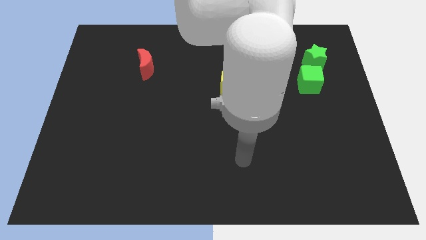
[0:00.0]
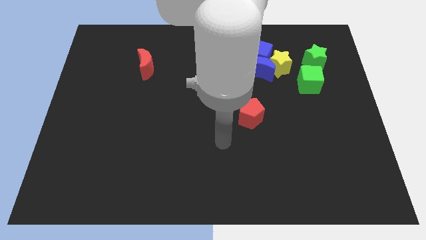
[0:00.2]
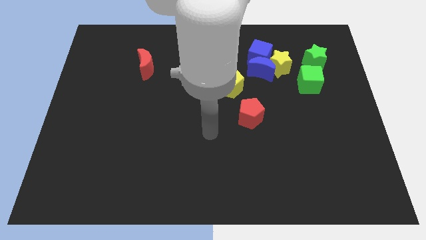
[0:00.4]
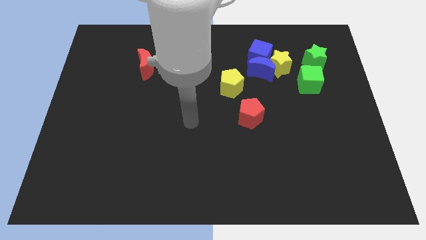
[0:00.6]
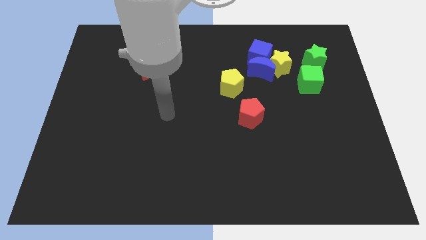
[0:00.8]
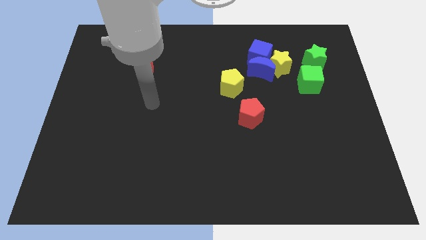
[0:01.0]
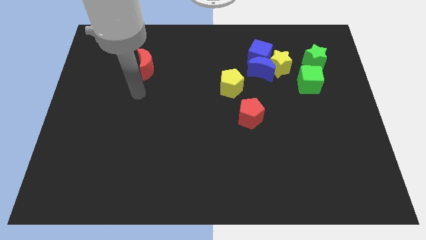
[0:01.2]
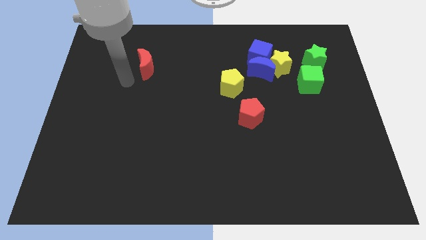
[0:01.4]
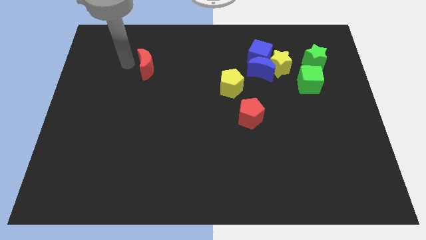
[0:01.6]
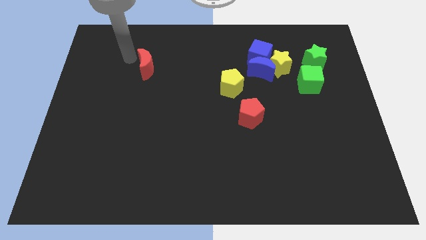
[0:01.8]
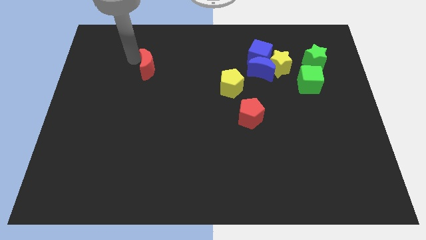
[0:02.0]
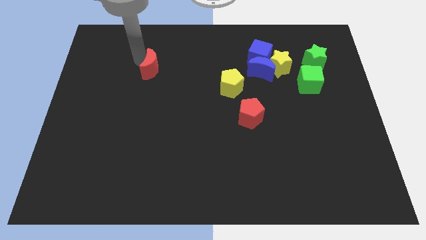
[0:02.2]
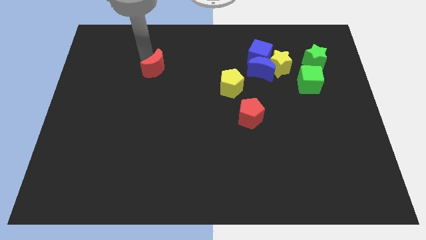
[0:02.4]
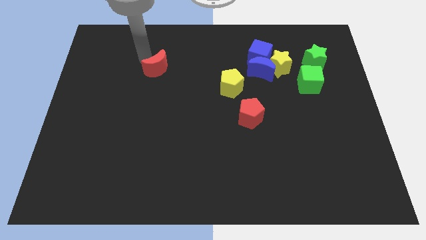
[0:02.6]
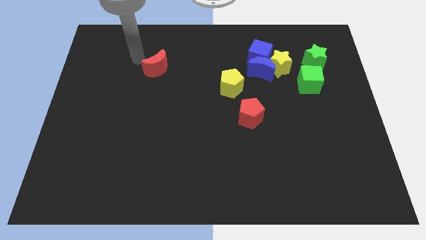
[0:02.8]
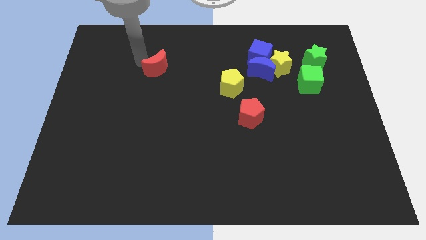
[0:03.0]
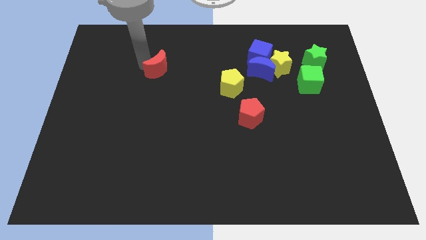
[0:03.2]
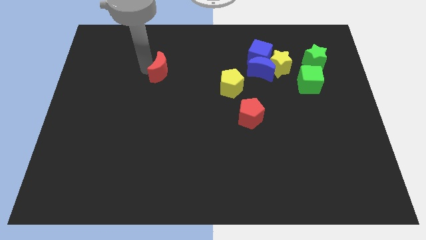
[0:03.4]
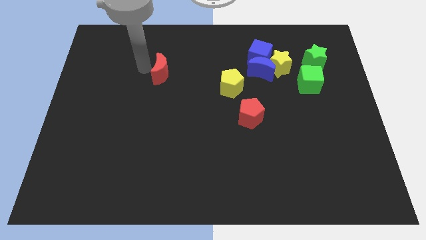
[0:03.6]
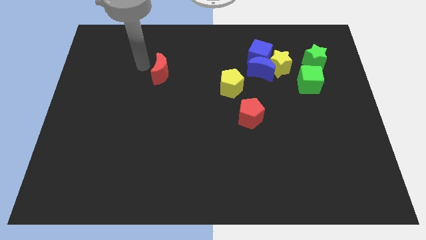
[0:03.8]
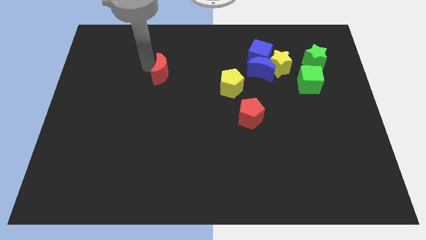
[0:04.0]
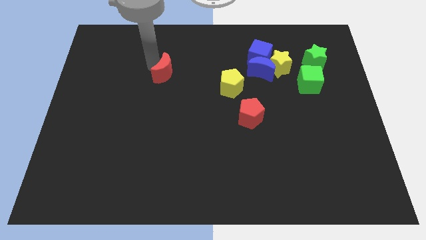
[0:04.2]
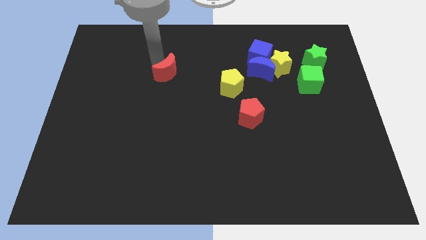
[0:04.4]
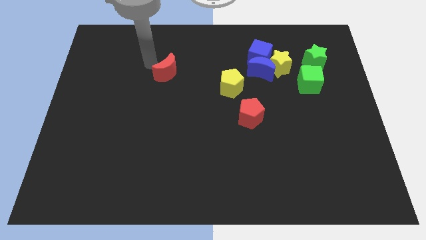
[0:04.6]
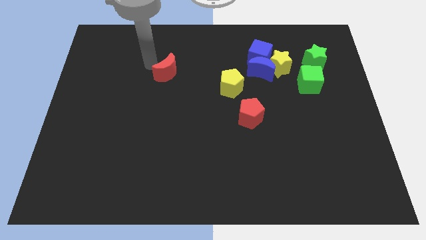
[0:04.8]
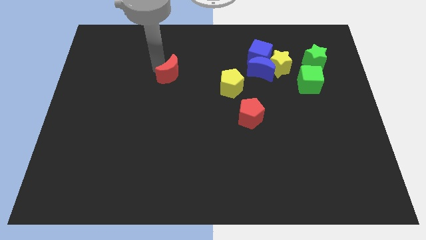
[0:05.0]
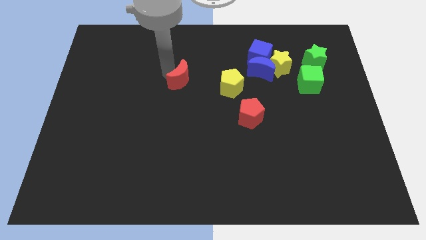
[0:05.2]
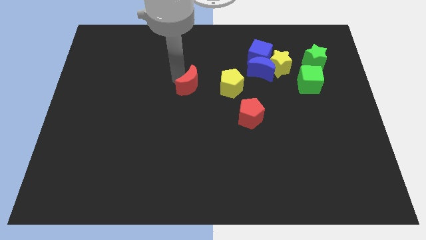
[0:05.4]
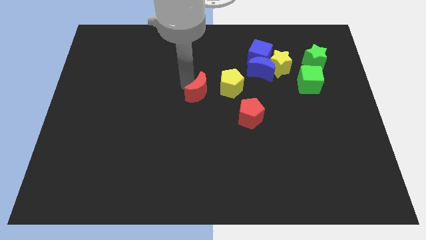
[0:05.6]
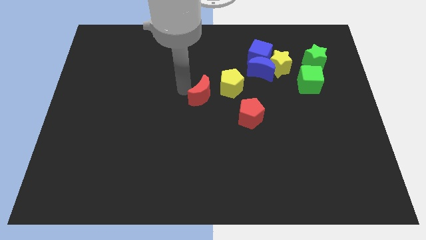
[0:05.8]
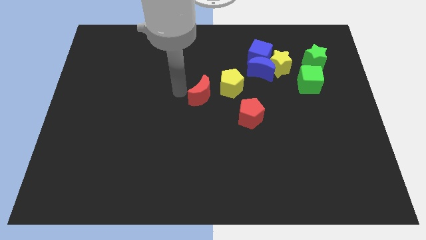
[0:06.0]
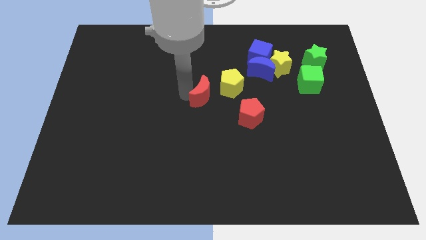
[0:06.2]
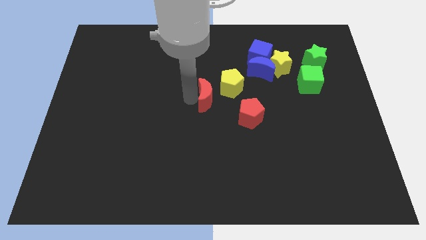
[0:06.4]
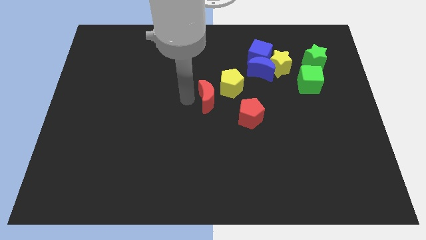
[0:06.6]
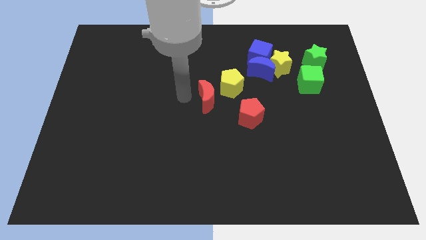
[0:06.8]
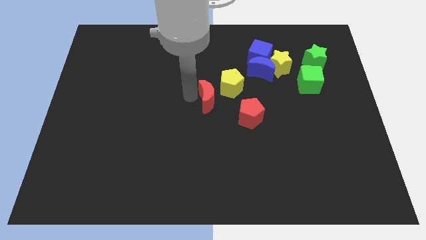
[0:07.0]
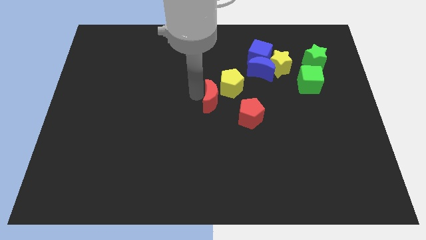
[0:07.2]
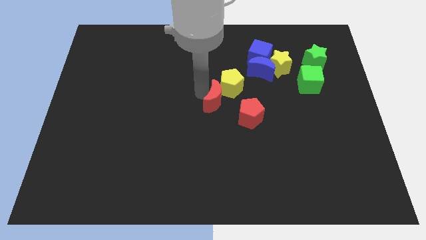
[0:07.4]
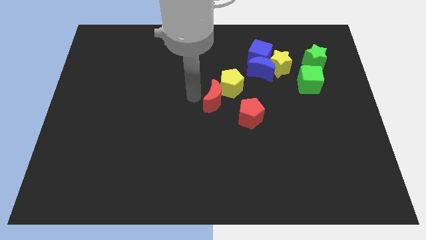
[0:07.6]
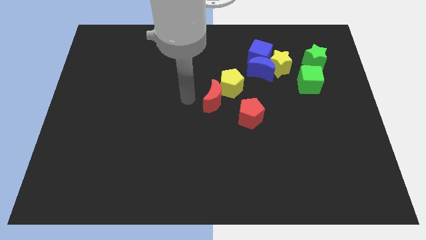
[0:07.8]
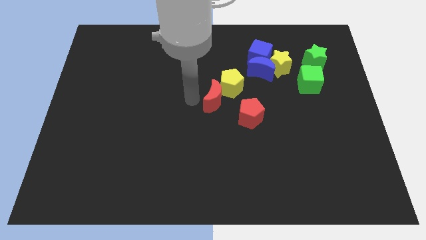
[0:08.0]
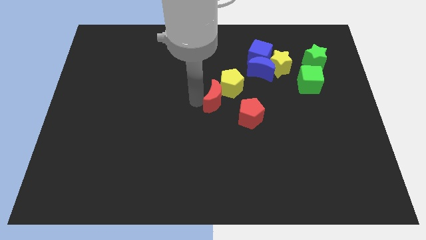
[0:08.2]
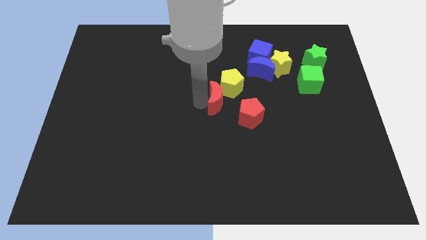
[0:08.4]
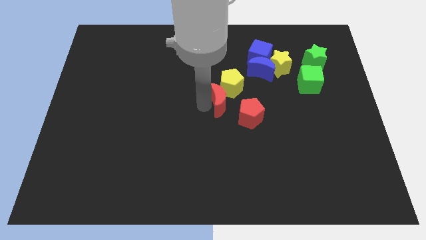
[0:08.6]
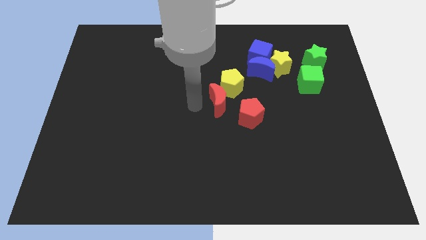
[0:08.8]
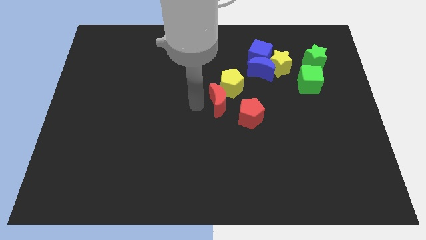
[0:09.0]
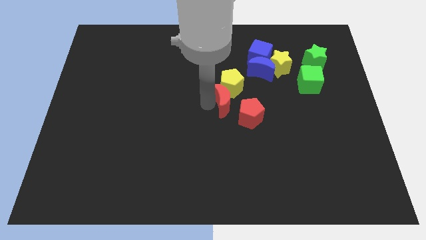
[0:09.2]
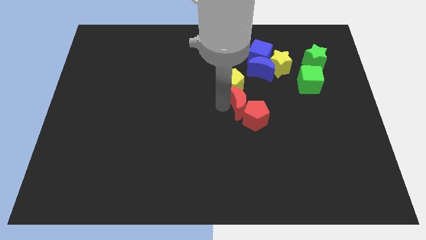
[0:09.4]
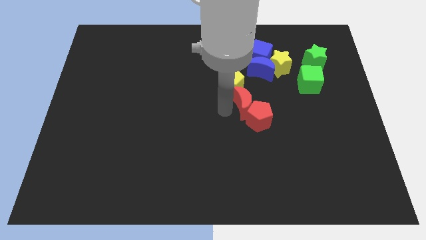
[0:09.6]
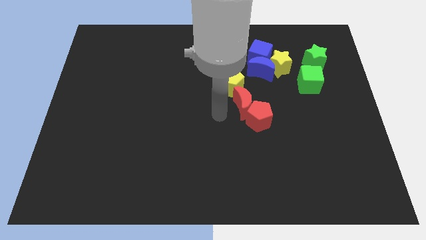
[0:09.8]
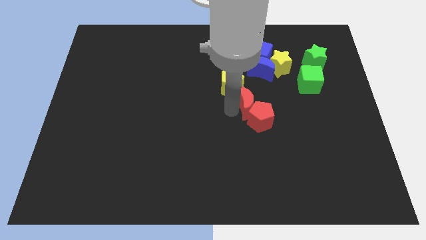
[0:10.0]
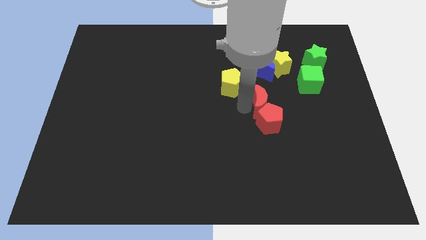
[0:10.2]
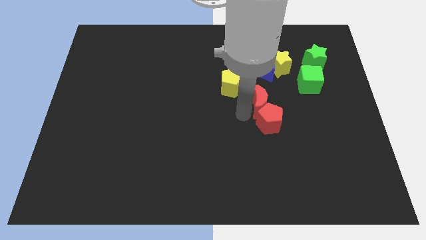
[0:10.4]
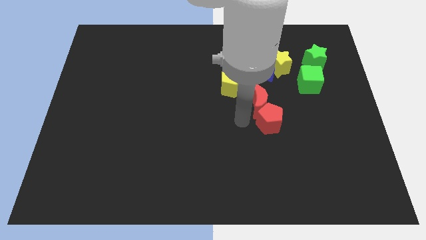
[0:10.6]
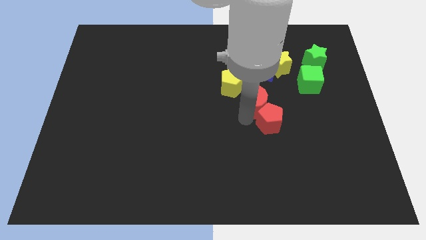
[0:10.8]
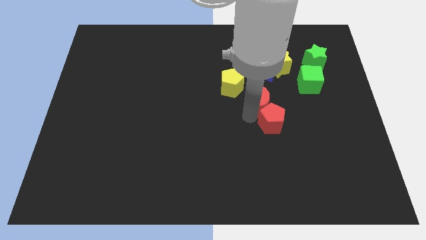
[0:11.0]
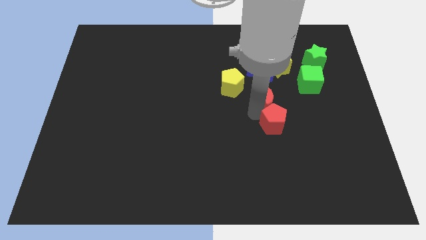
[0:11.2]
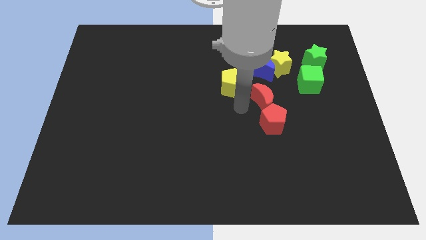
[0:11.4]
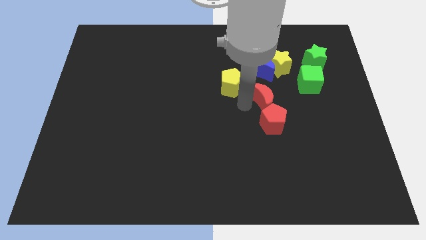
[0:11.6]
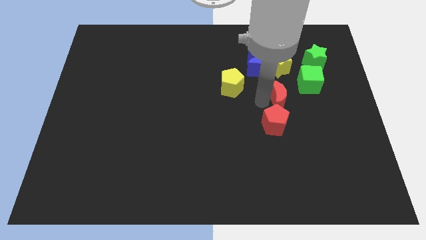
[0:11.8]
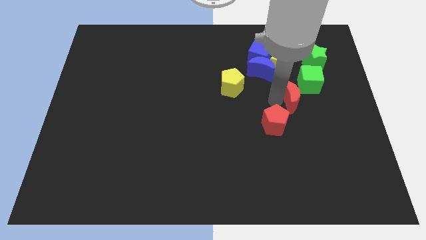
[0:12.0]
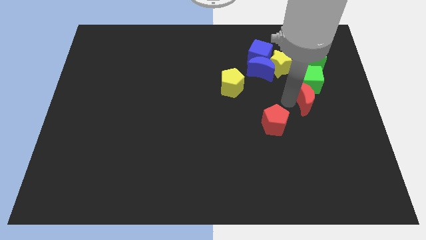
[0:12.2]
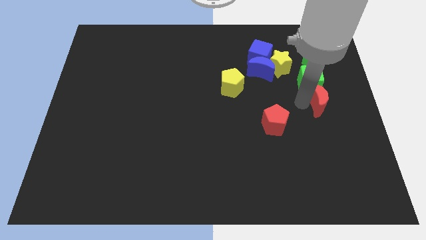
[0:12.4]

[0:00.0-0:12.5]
slide the red moon to the right side of the board
